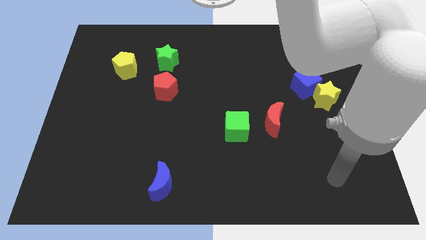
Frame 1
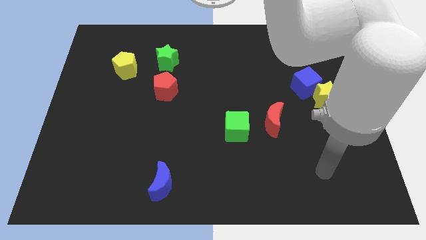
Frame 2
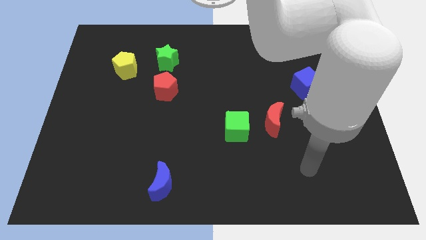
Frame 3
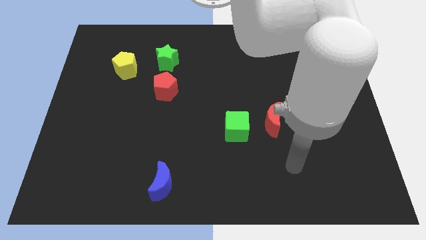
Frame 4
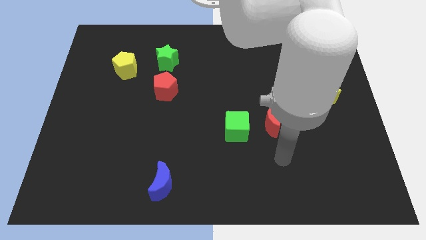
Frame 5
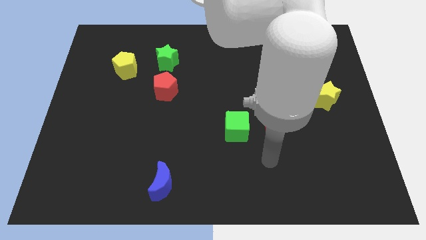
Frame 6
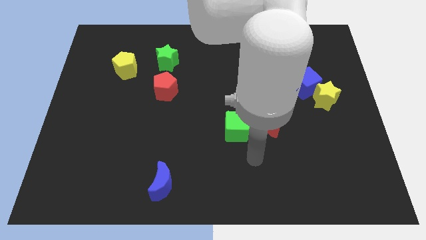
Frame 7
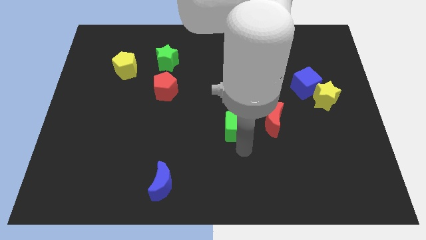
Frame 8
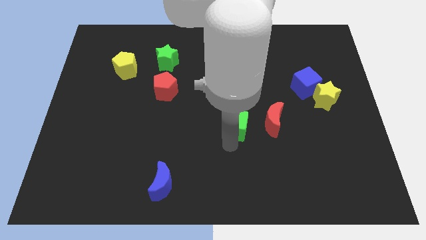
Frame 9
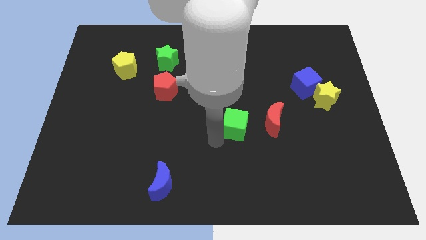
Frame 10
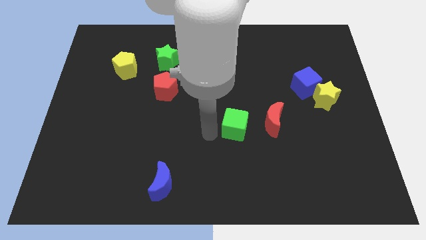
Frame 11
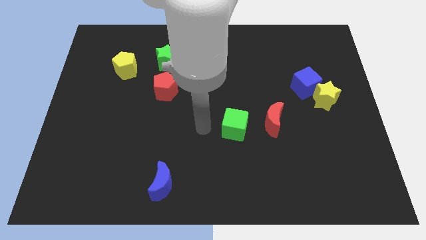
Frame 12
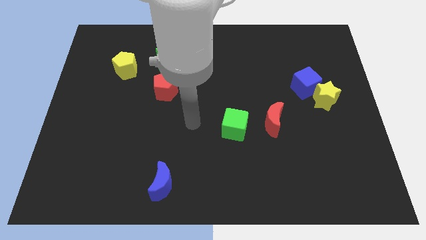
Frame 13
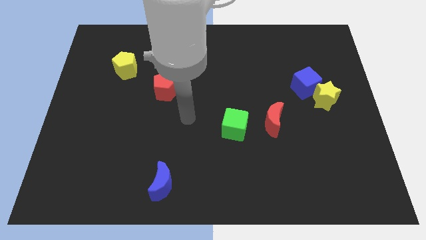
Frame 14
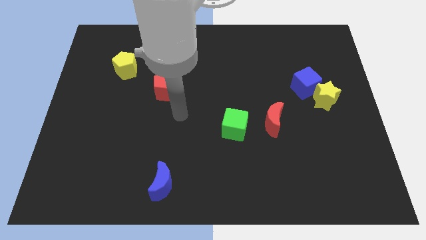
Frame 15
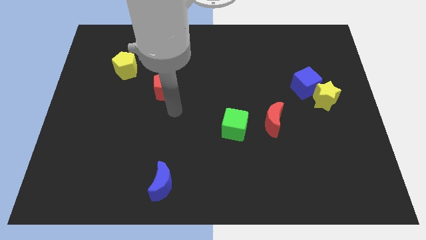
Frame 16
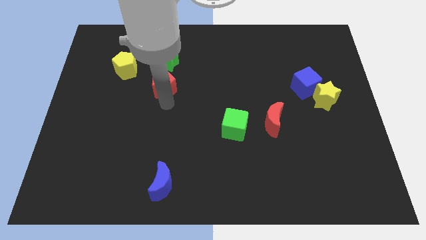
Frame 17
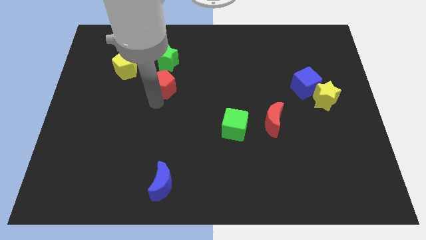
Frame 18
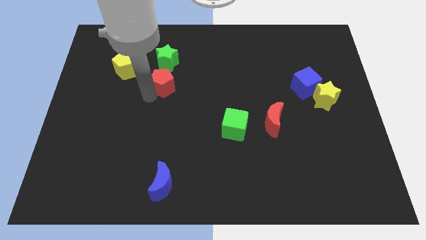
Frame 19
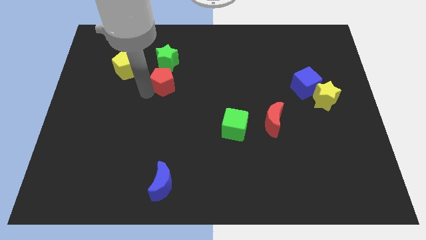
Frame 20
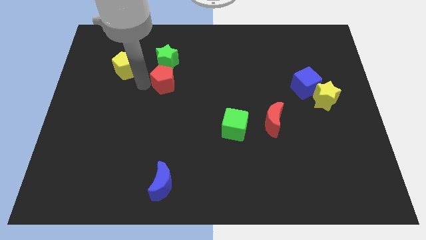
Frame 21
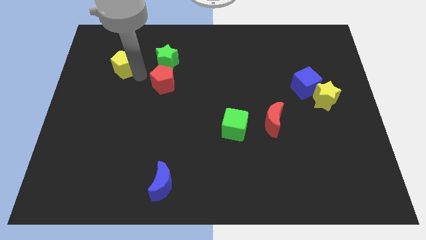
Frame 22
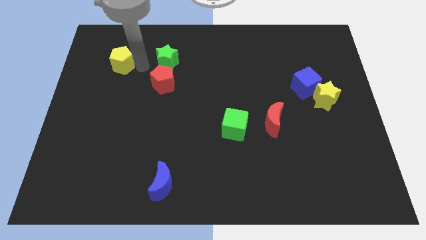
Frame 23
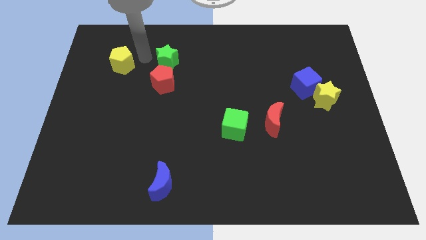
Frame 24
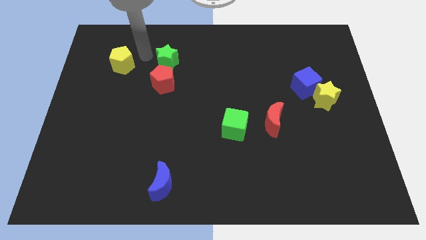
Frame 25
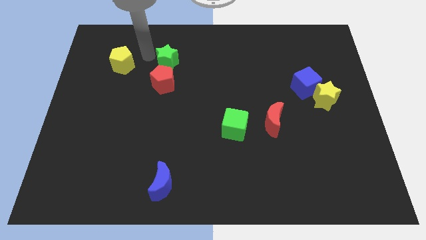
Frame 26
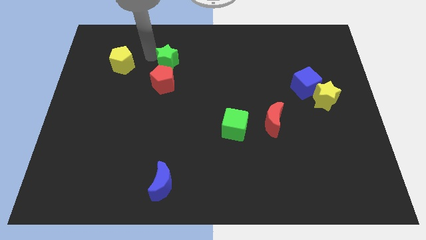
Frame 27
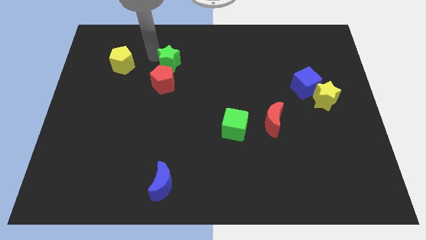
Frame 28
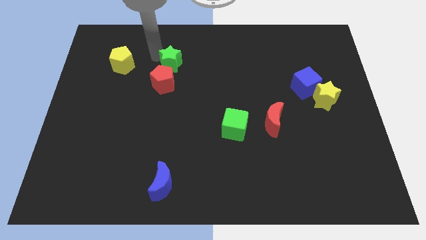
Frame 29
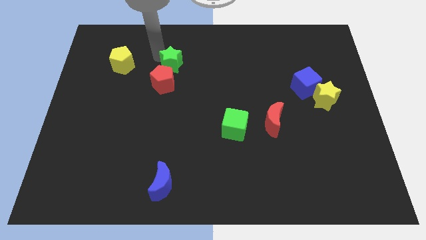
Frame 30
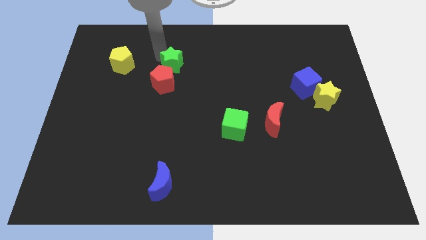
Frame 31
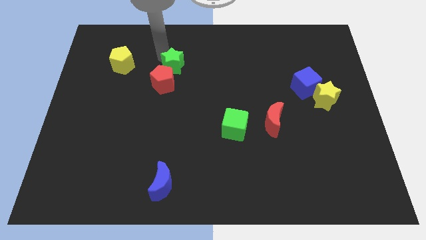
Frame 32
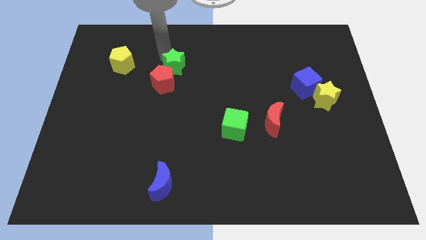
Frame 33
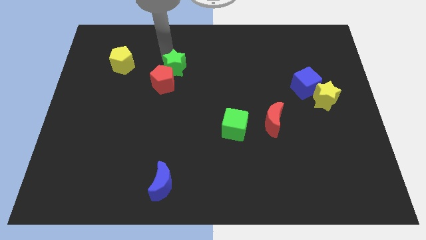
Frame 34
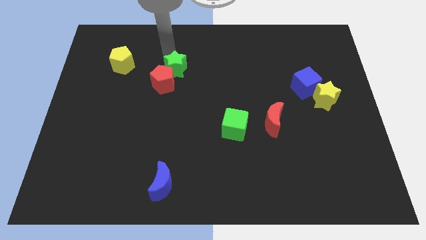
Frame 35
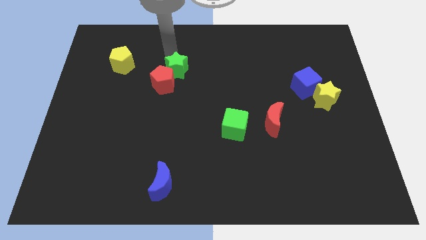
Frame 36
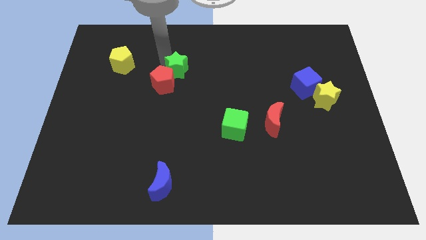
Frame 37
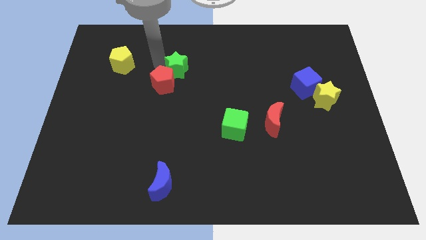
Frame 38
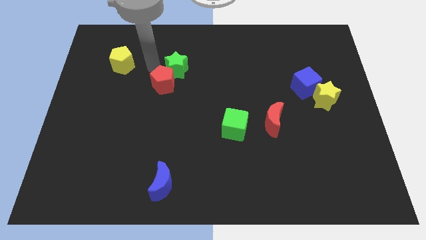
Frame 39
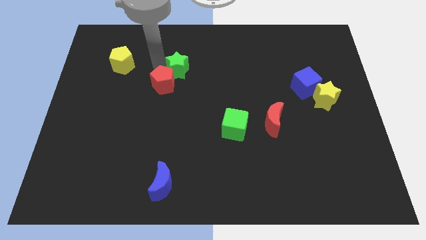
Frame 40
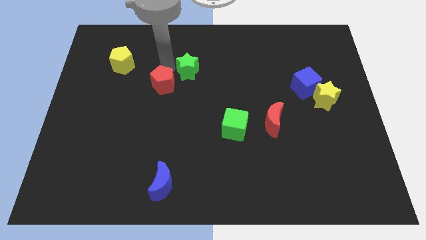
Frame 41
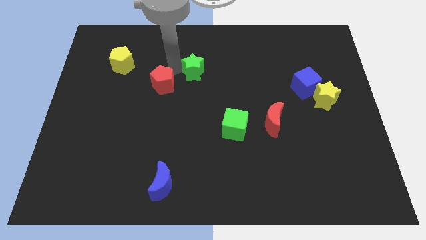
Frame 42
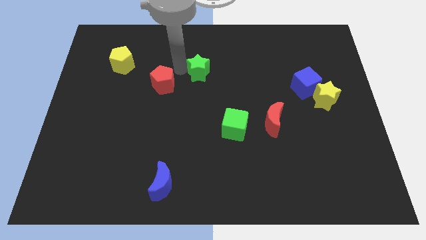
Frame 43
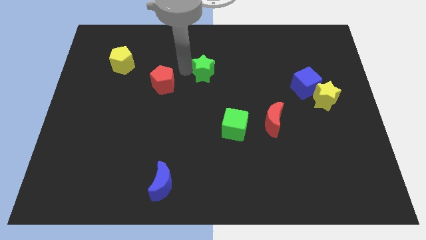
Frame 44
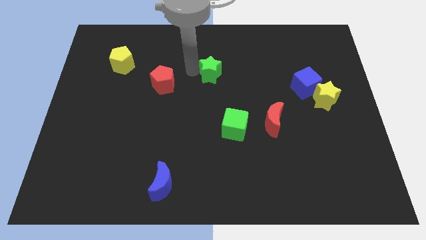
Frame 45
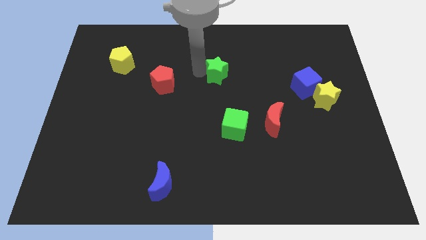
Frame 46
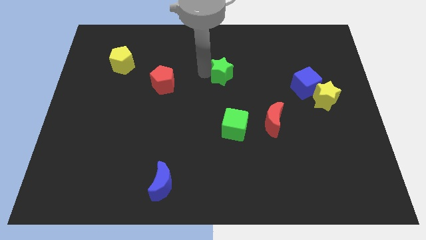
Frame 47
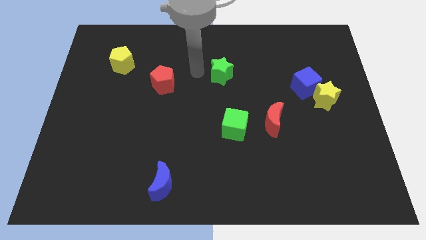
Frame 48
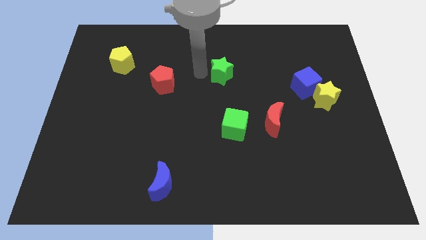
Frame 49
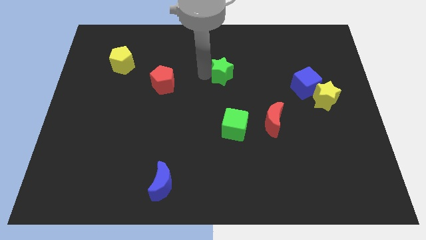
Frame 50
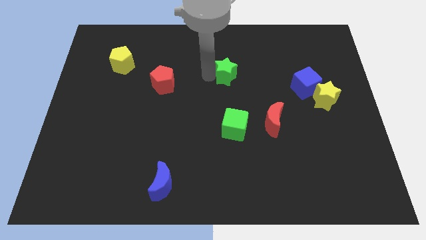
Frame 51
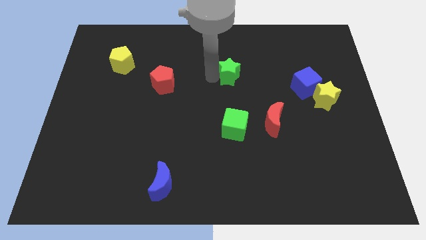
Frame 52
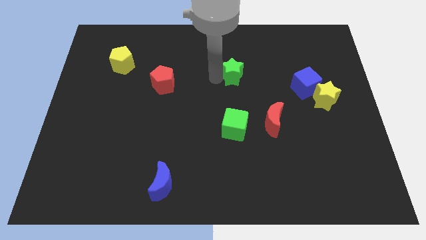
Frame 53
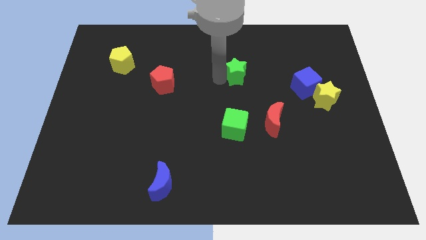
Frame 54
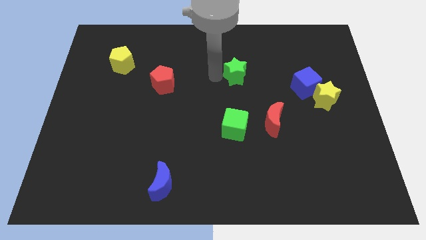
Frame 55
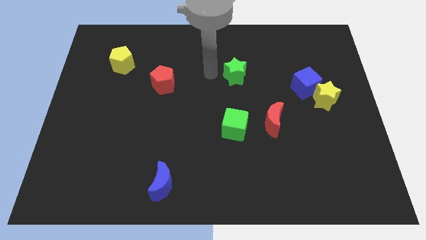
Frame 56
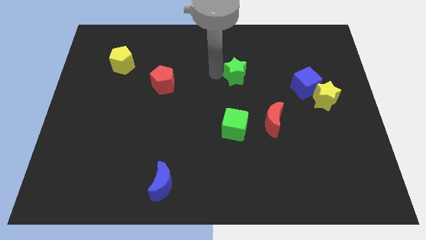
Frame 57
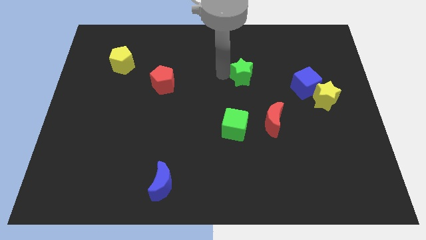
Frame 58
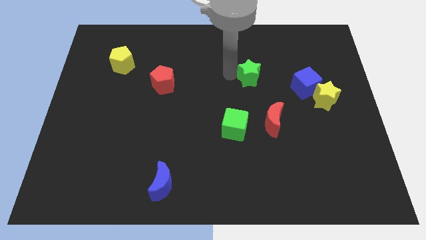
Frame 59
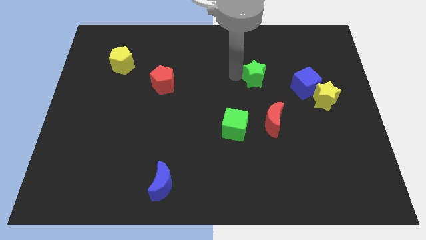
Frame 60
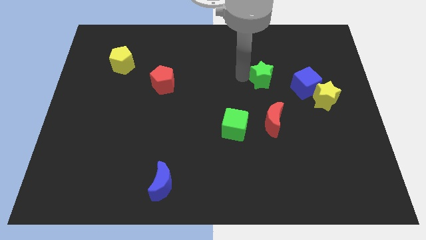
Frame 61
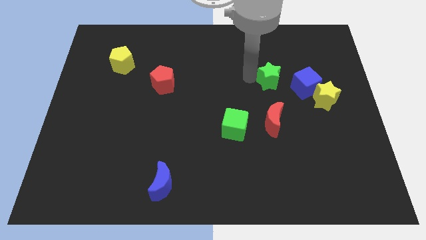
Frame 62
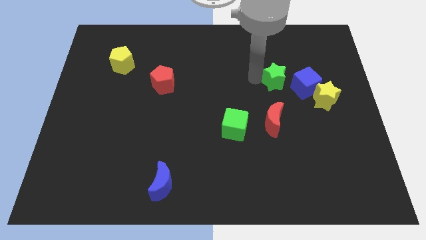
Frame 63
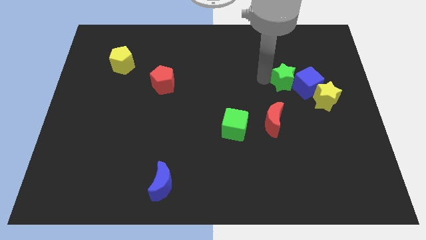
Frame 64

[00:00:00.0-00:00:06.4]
move the green star to the blue cube

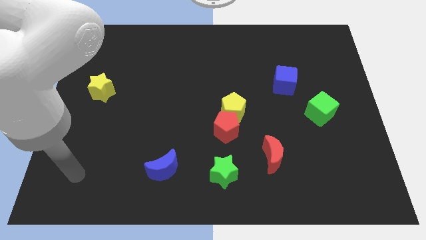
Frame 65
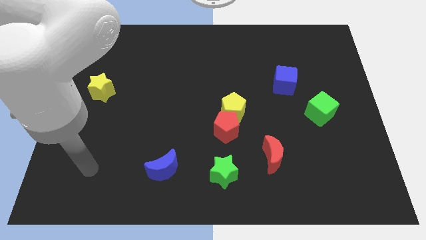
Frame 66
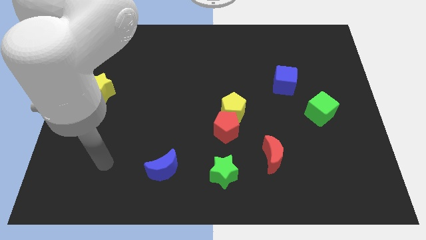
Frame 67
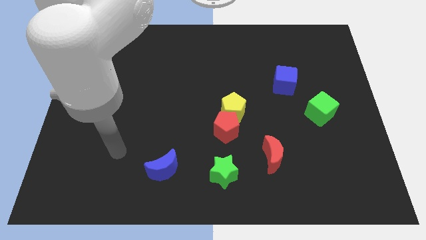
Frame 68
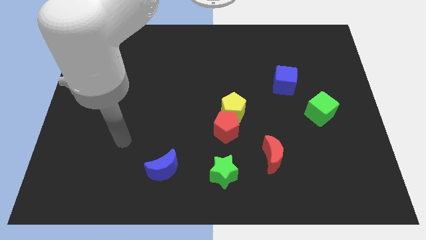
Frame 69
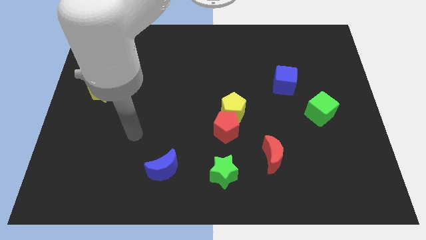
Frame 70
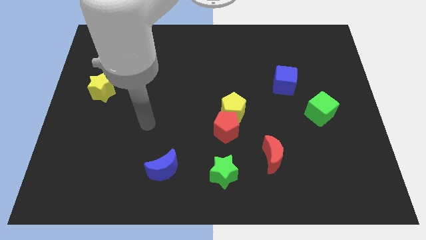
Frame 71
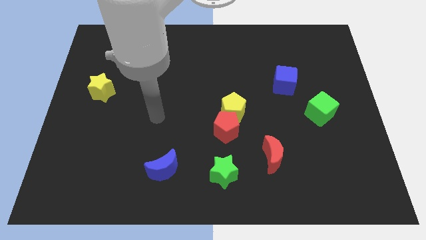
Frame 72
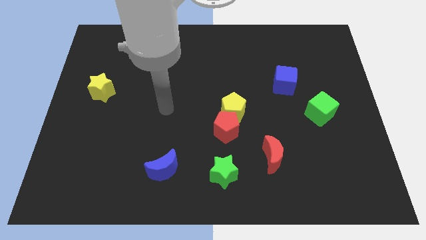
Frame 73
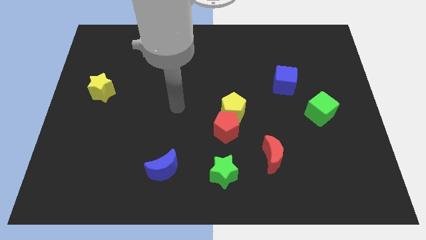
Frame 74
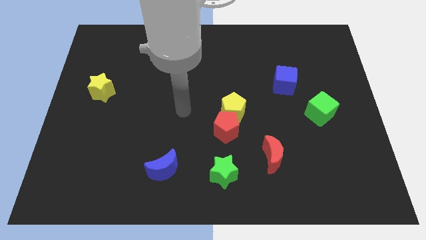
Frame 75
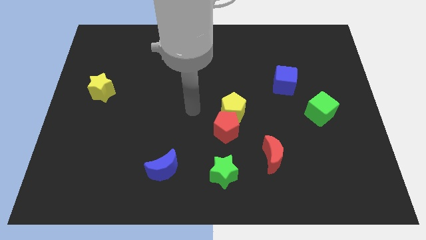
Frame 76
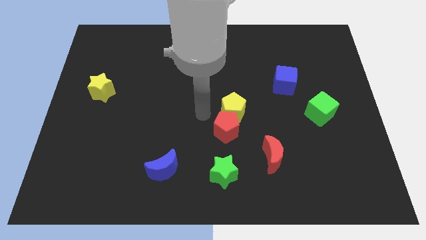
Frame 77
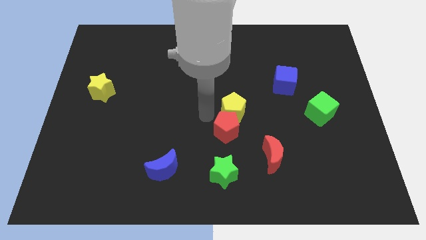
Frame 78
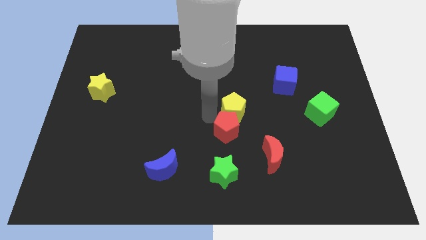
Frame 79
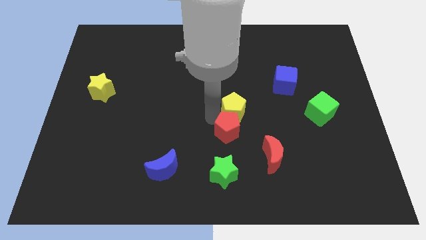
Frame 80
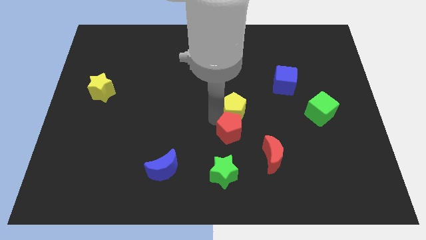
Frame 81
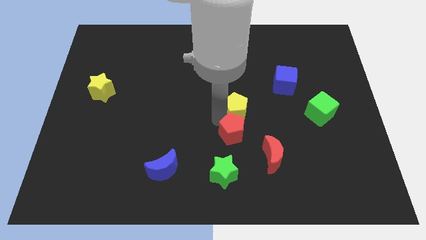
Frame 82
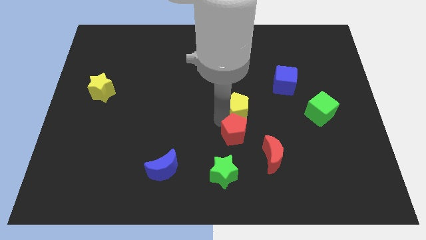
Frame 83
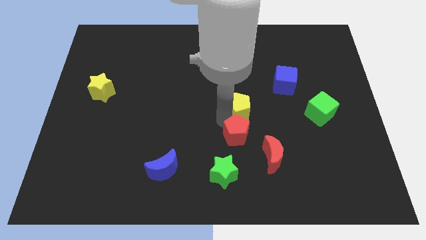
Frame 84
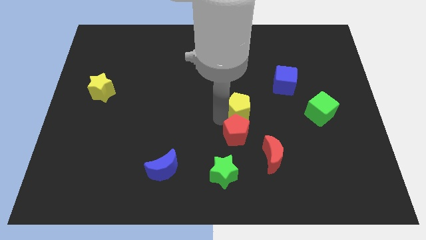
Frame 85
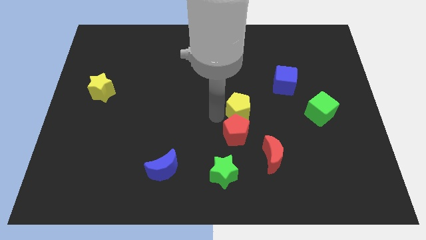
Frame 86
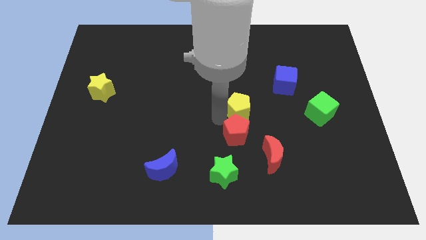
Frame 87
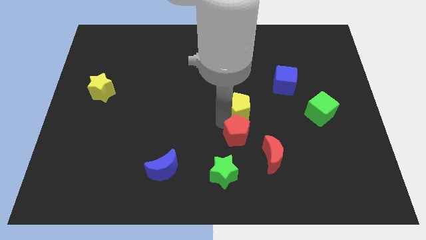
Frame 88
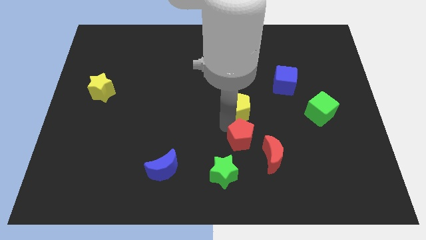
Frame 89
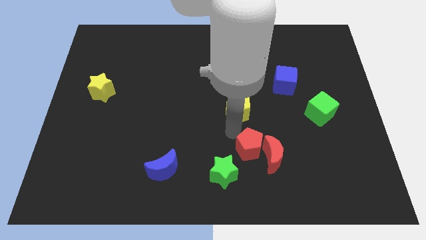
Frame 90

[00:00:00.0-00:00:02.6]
slide the red pentagon to the red moon
